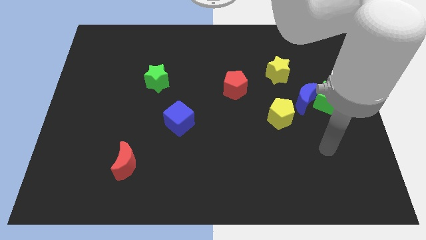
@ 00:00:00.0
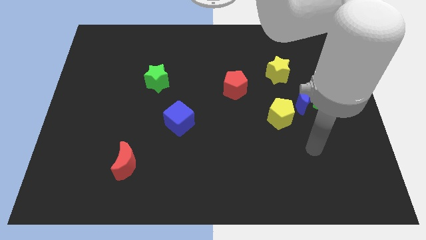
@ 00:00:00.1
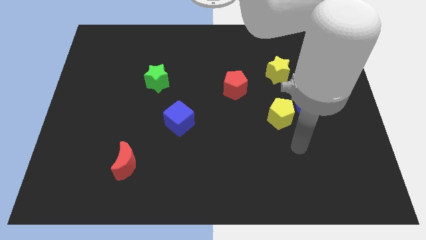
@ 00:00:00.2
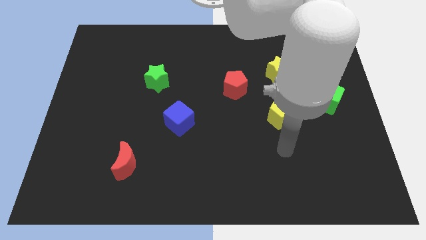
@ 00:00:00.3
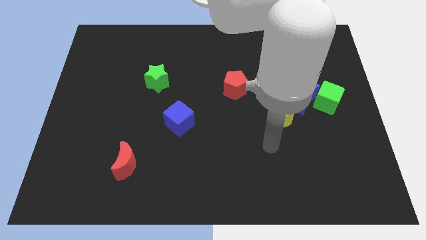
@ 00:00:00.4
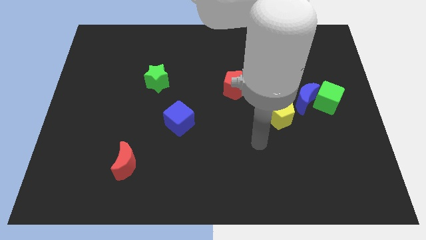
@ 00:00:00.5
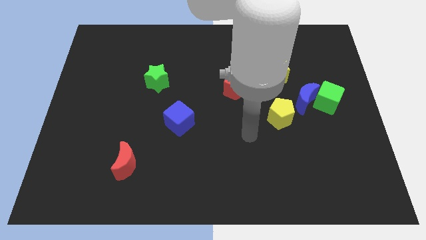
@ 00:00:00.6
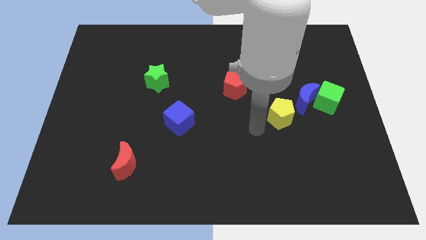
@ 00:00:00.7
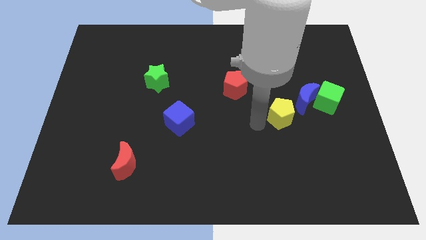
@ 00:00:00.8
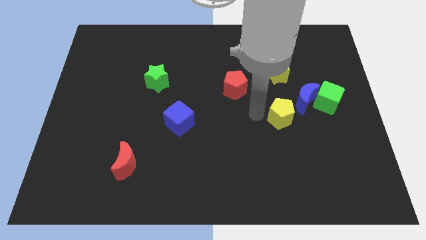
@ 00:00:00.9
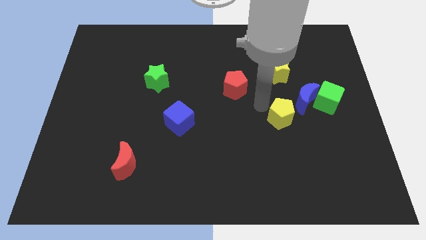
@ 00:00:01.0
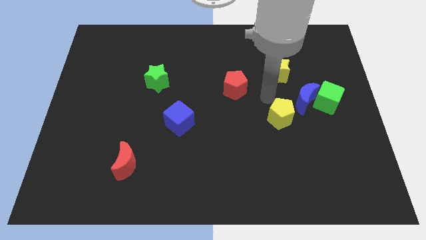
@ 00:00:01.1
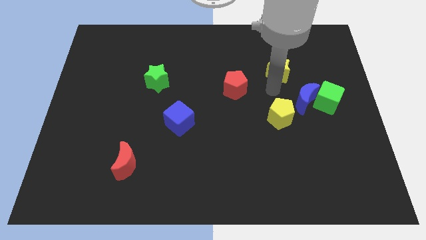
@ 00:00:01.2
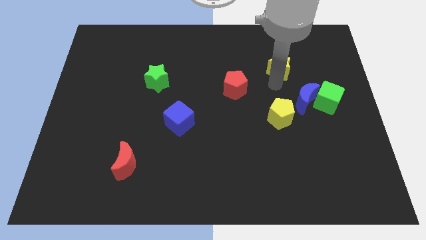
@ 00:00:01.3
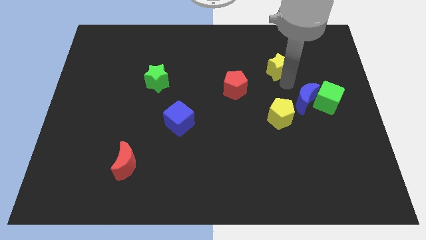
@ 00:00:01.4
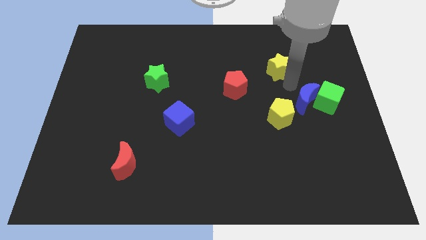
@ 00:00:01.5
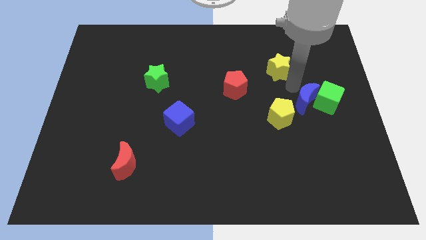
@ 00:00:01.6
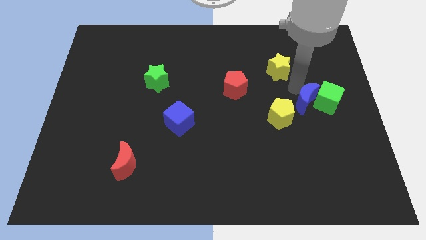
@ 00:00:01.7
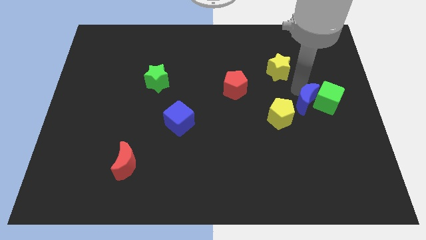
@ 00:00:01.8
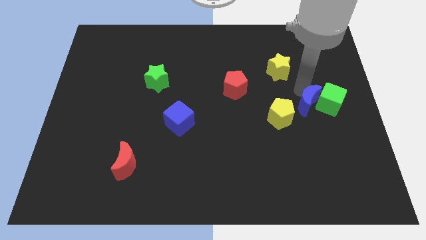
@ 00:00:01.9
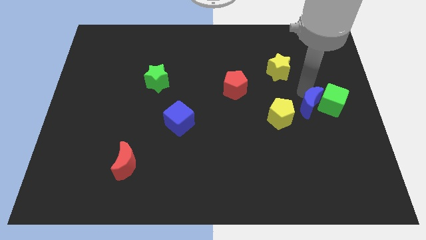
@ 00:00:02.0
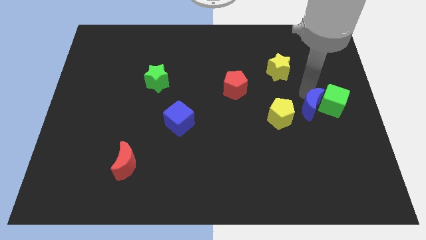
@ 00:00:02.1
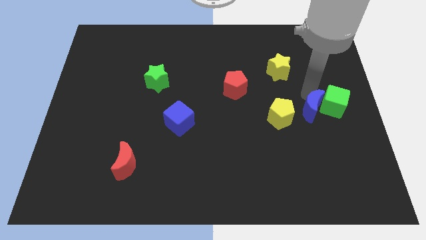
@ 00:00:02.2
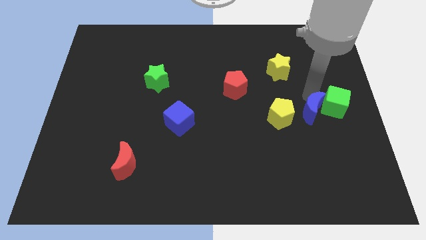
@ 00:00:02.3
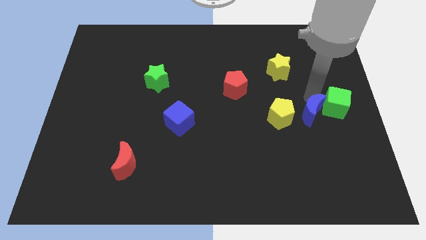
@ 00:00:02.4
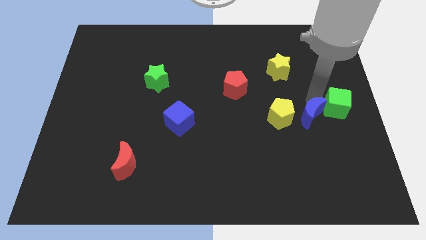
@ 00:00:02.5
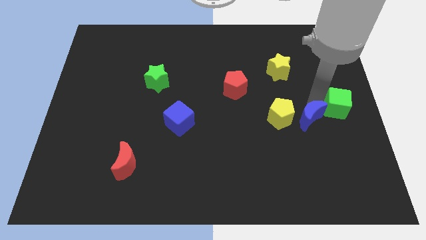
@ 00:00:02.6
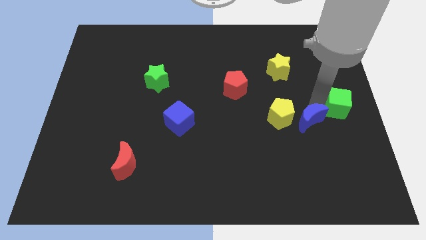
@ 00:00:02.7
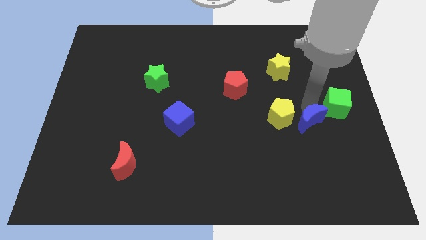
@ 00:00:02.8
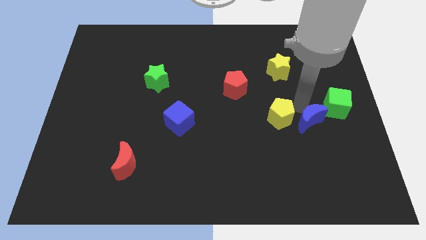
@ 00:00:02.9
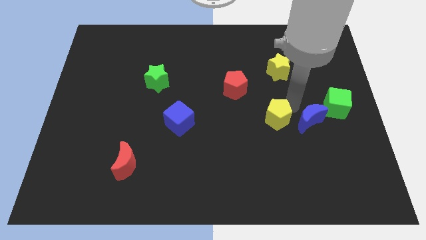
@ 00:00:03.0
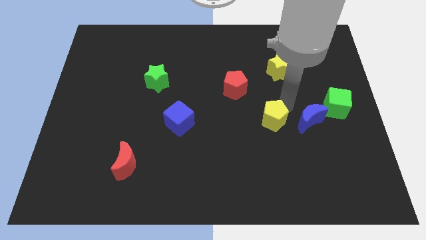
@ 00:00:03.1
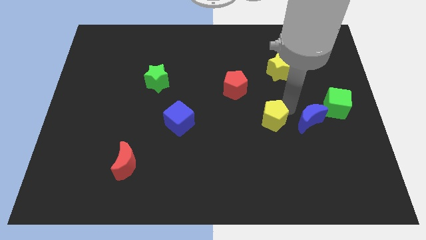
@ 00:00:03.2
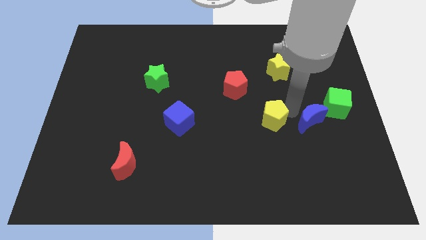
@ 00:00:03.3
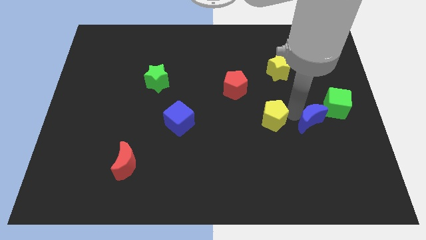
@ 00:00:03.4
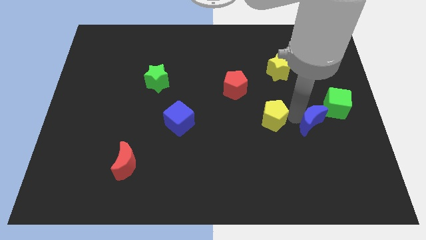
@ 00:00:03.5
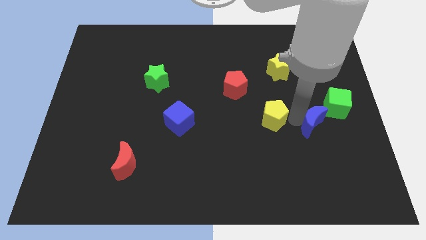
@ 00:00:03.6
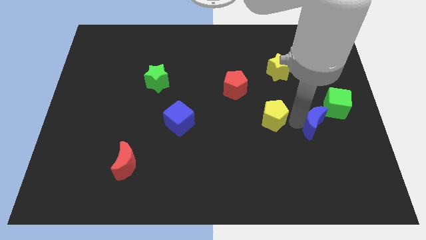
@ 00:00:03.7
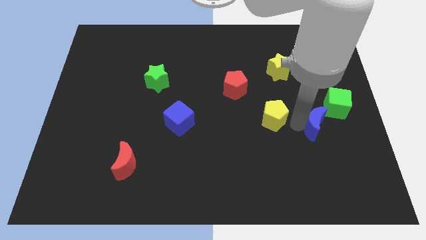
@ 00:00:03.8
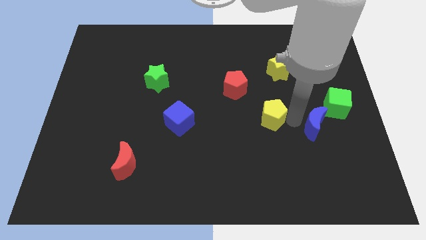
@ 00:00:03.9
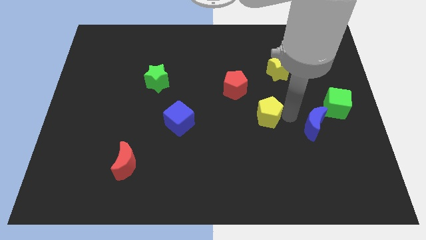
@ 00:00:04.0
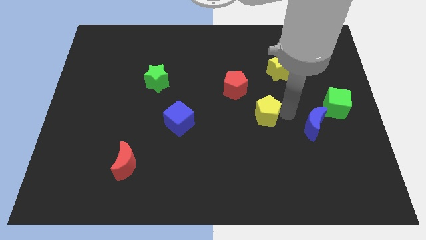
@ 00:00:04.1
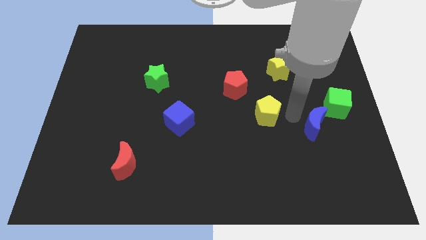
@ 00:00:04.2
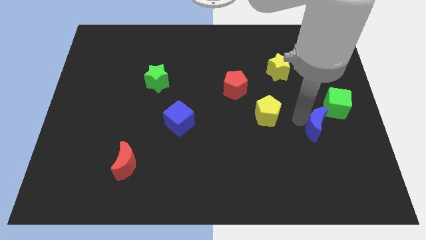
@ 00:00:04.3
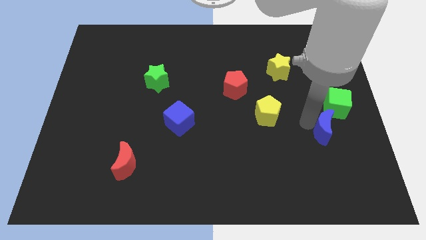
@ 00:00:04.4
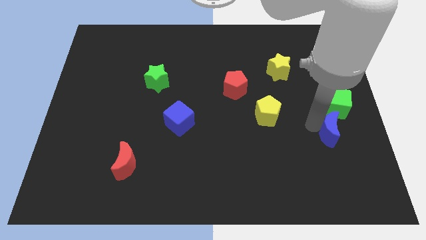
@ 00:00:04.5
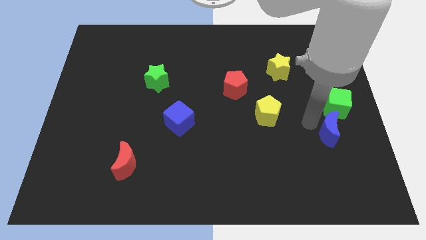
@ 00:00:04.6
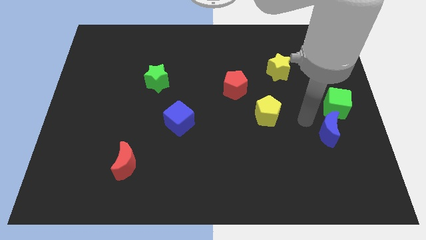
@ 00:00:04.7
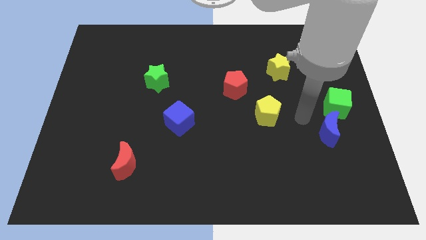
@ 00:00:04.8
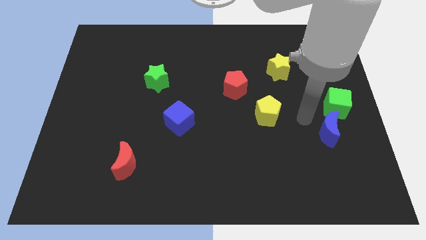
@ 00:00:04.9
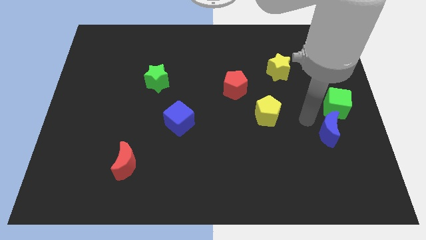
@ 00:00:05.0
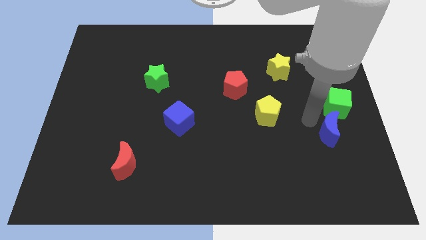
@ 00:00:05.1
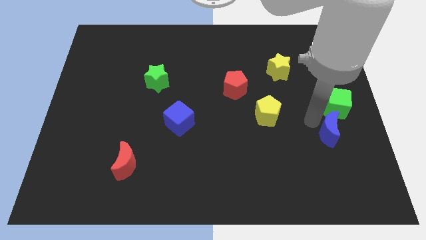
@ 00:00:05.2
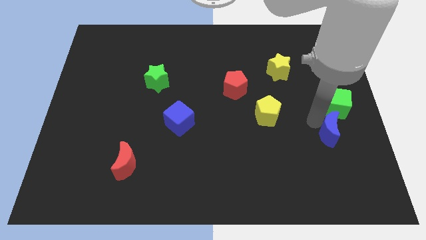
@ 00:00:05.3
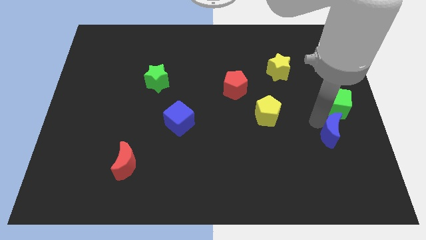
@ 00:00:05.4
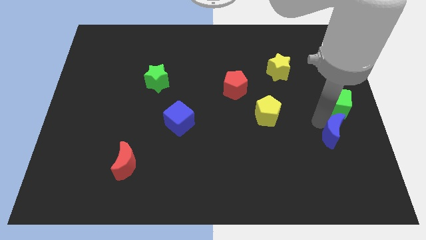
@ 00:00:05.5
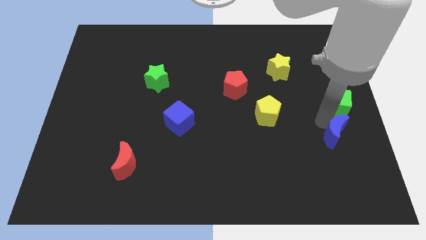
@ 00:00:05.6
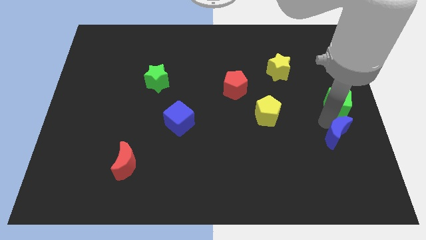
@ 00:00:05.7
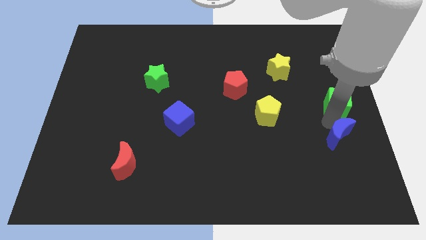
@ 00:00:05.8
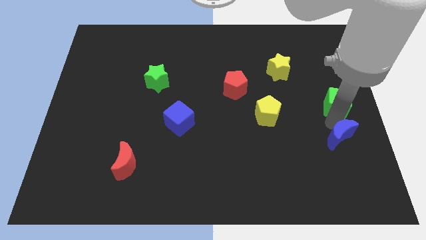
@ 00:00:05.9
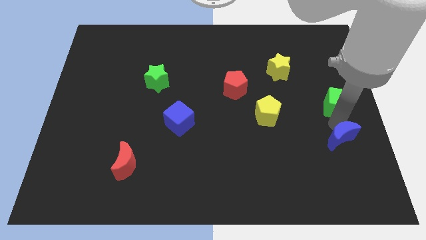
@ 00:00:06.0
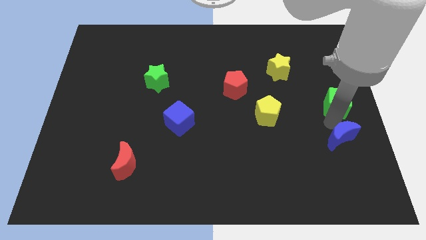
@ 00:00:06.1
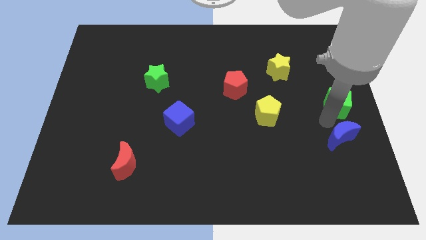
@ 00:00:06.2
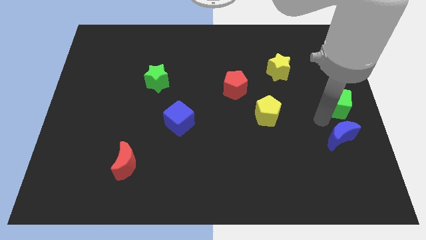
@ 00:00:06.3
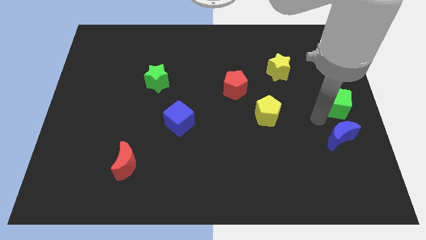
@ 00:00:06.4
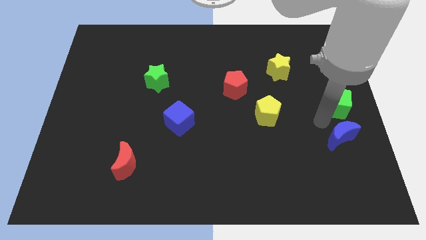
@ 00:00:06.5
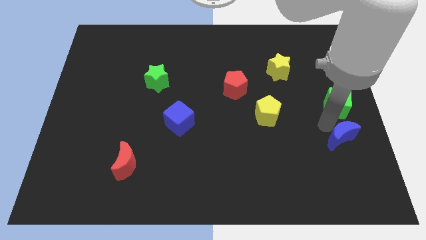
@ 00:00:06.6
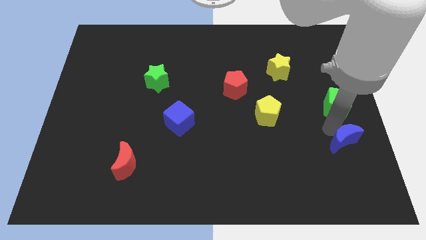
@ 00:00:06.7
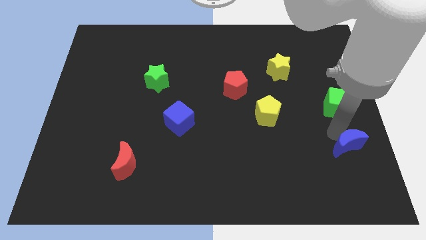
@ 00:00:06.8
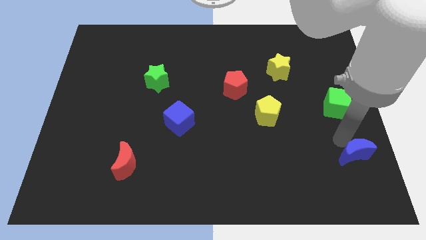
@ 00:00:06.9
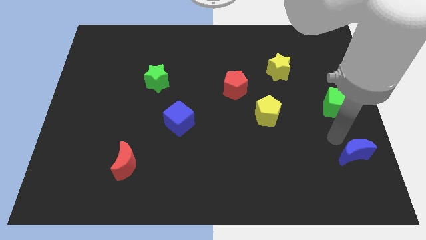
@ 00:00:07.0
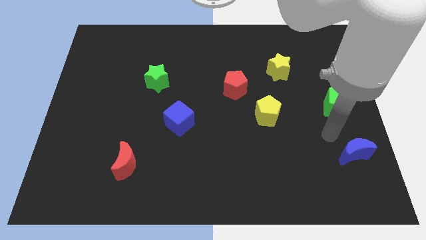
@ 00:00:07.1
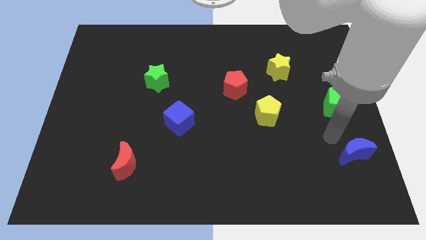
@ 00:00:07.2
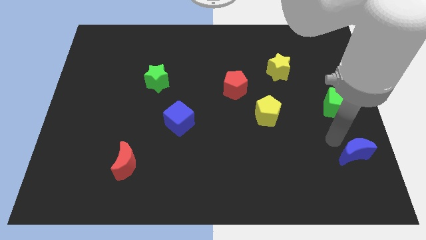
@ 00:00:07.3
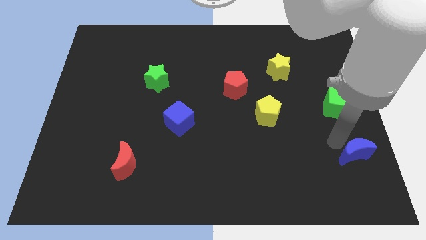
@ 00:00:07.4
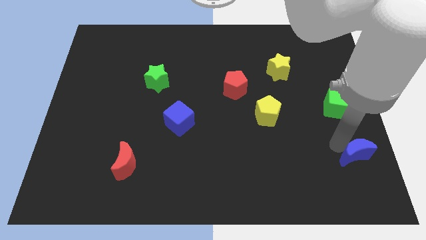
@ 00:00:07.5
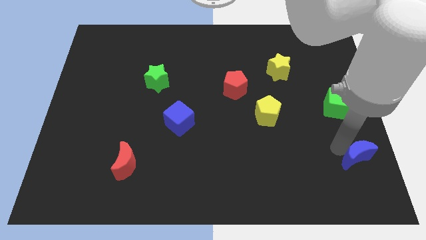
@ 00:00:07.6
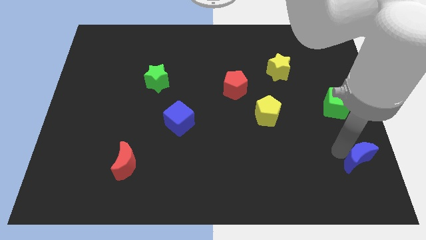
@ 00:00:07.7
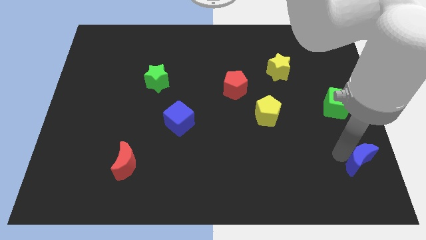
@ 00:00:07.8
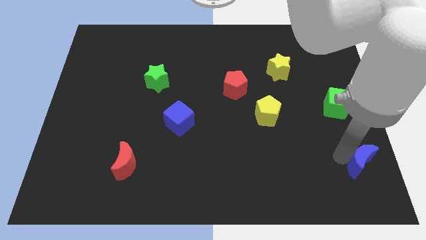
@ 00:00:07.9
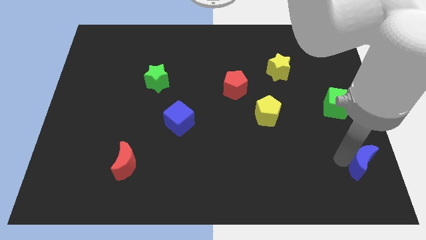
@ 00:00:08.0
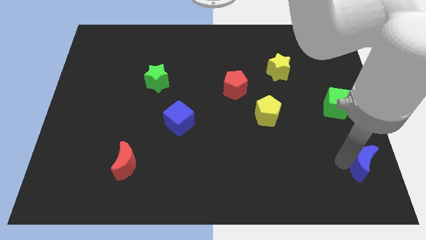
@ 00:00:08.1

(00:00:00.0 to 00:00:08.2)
put the blue moon to the lower right corner
